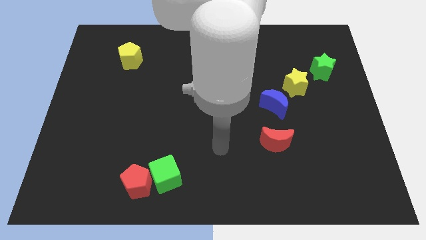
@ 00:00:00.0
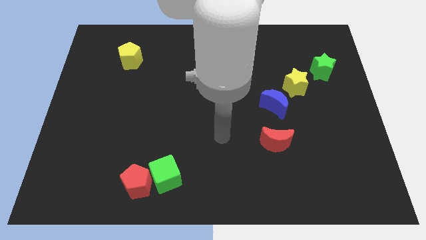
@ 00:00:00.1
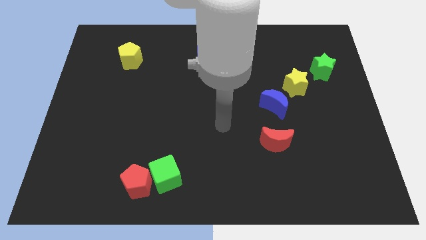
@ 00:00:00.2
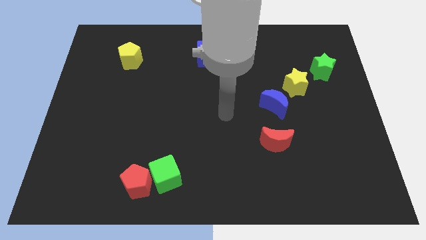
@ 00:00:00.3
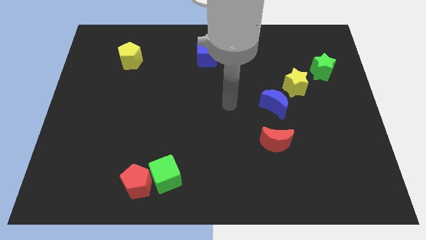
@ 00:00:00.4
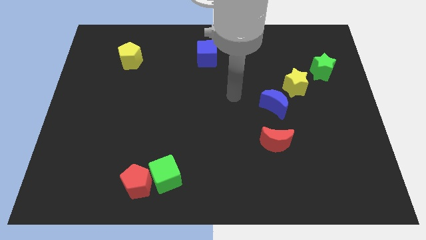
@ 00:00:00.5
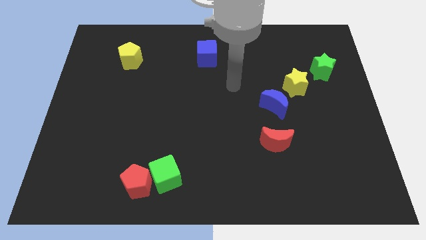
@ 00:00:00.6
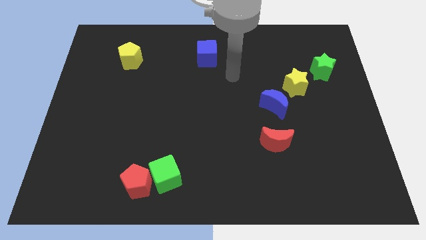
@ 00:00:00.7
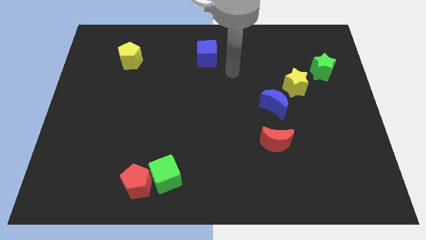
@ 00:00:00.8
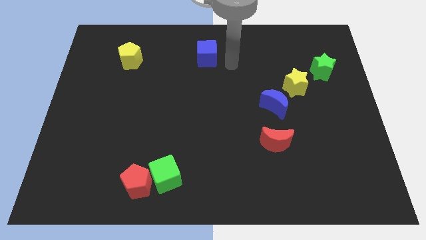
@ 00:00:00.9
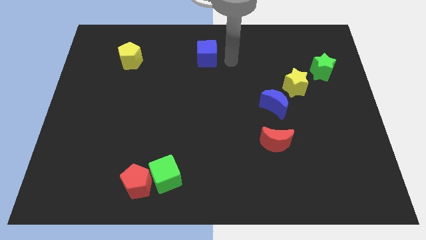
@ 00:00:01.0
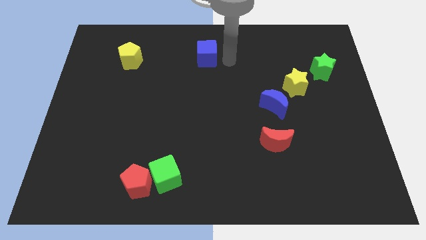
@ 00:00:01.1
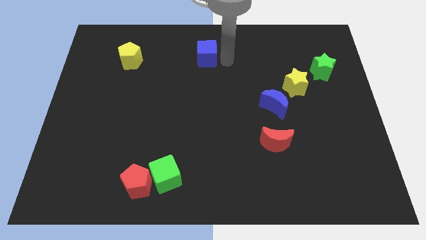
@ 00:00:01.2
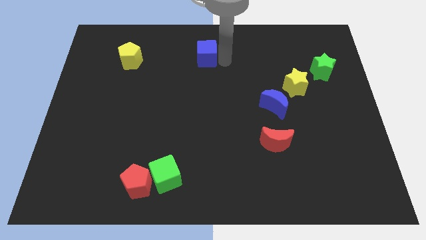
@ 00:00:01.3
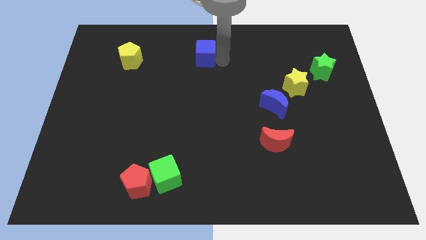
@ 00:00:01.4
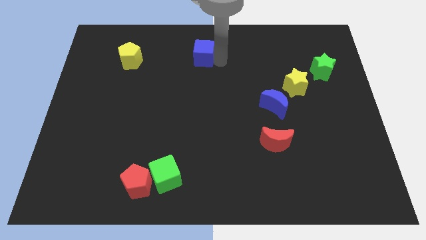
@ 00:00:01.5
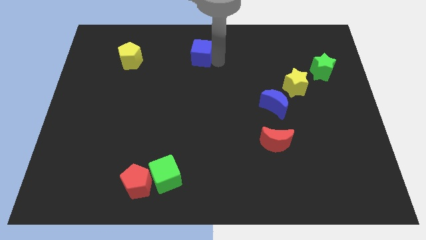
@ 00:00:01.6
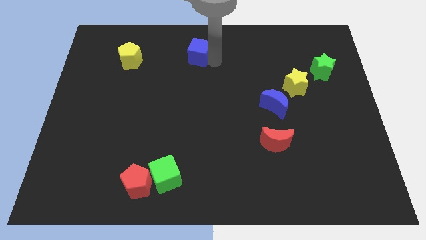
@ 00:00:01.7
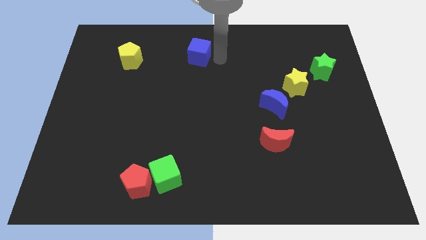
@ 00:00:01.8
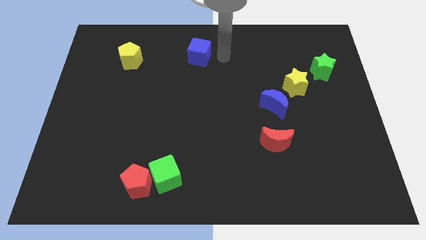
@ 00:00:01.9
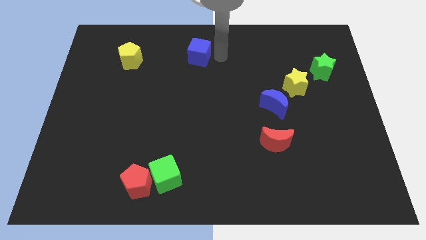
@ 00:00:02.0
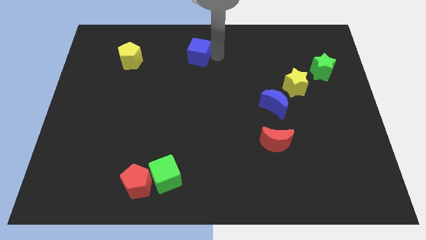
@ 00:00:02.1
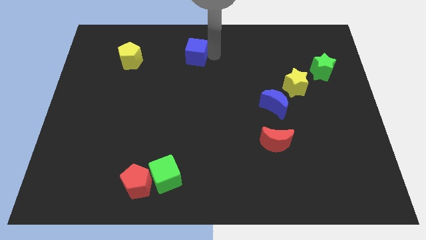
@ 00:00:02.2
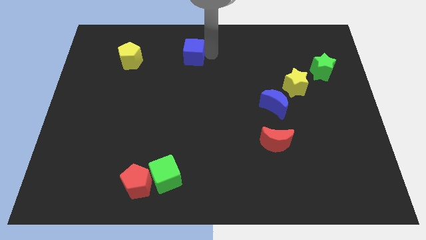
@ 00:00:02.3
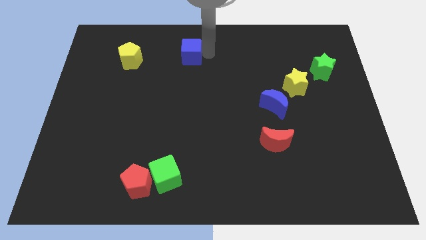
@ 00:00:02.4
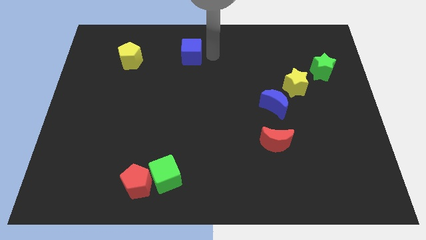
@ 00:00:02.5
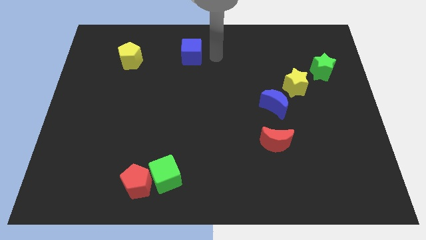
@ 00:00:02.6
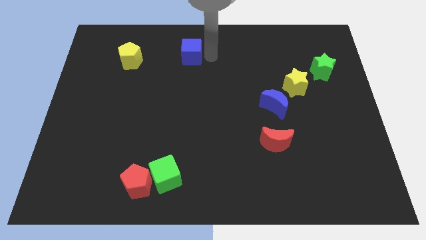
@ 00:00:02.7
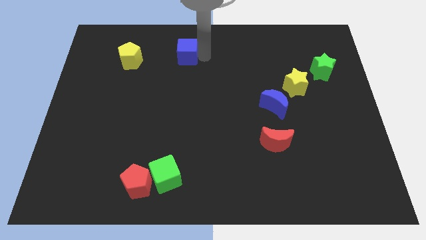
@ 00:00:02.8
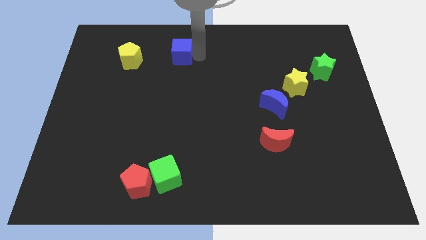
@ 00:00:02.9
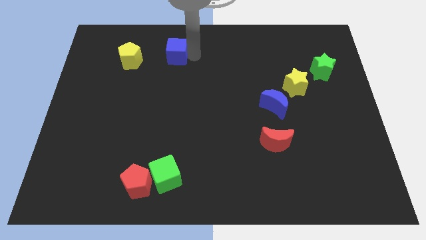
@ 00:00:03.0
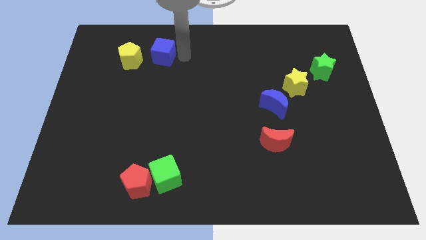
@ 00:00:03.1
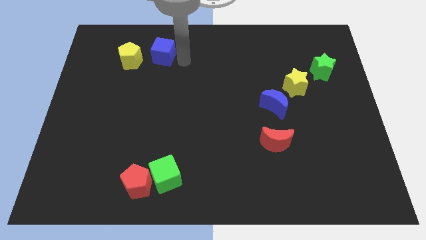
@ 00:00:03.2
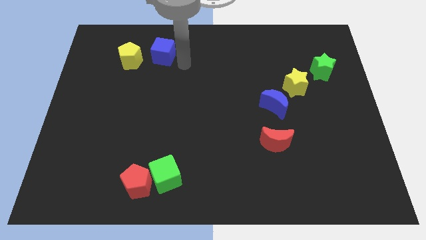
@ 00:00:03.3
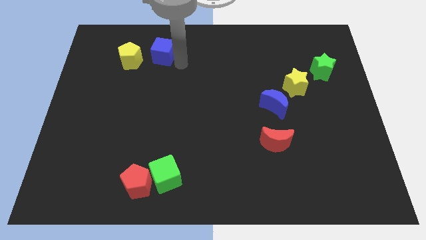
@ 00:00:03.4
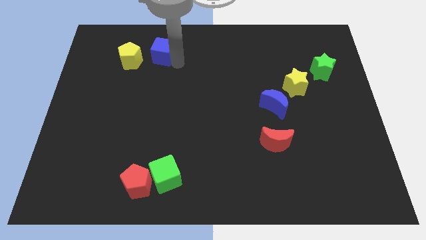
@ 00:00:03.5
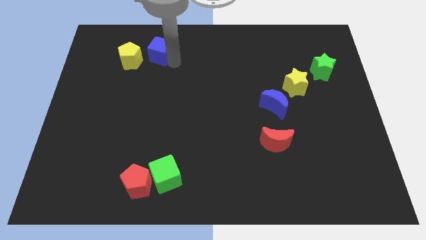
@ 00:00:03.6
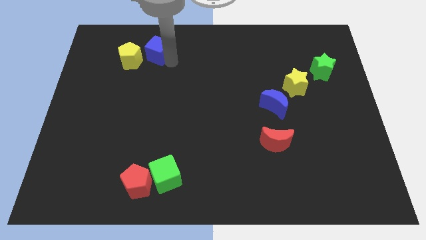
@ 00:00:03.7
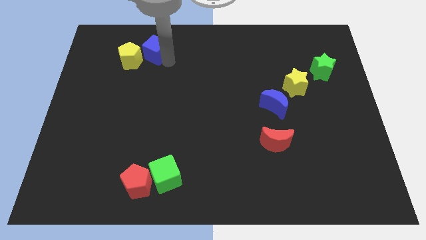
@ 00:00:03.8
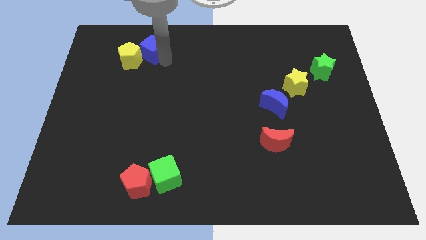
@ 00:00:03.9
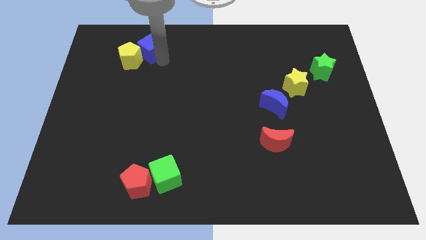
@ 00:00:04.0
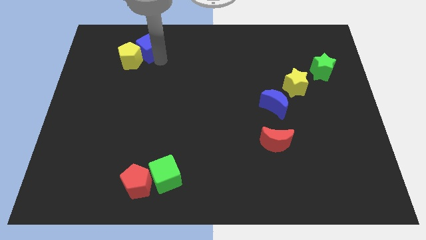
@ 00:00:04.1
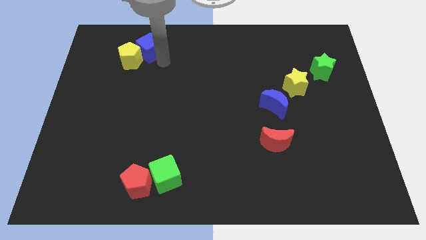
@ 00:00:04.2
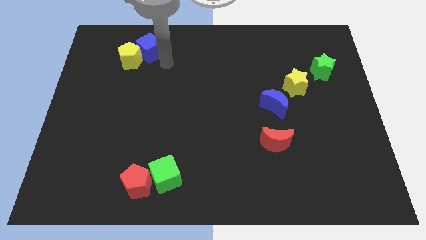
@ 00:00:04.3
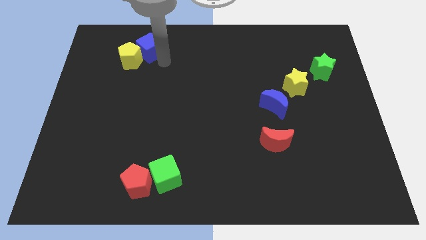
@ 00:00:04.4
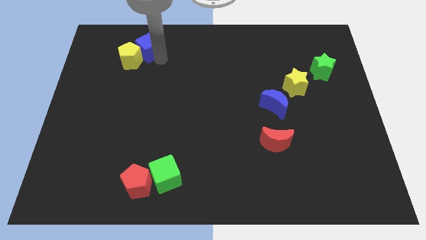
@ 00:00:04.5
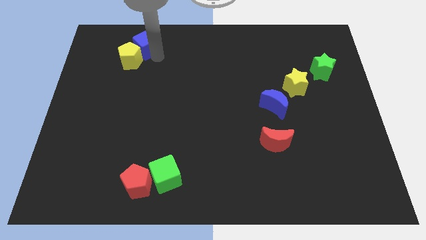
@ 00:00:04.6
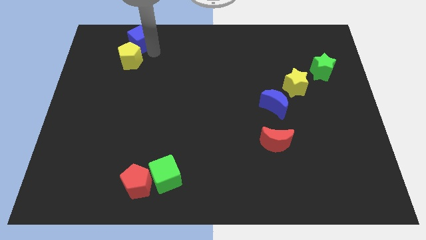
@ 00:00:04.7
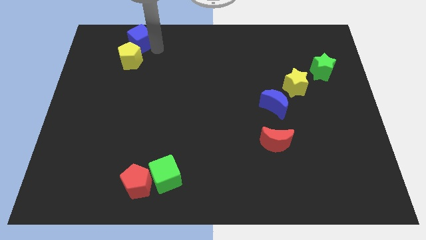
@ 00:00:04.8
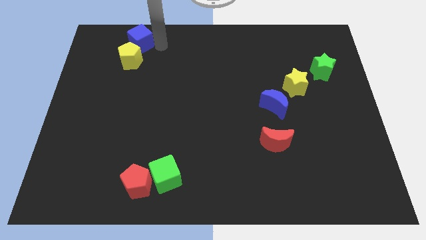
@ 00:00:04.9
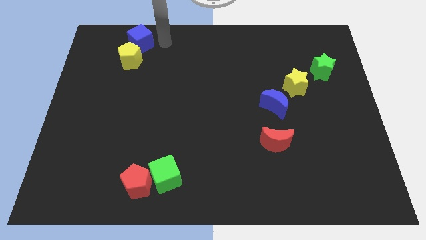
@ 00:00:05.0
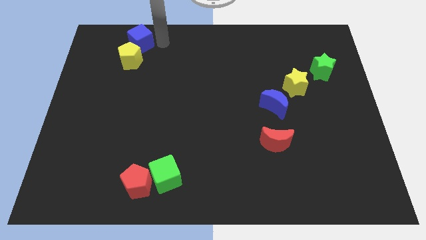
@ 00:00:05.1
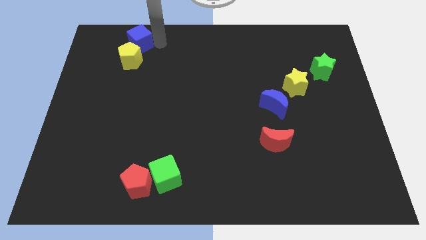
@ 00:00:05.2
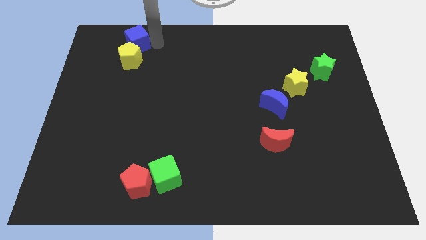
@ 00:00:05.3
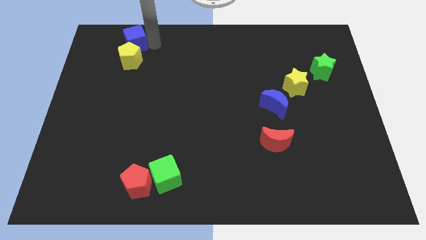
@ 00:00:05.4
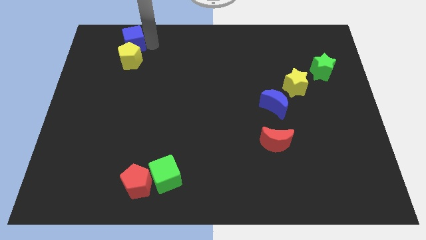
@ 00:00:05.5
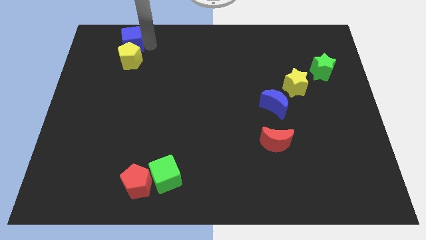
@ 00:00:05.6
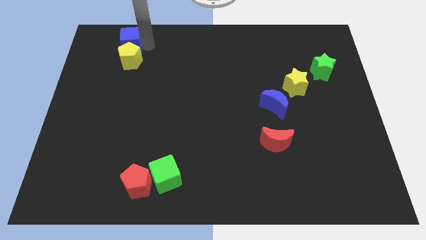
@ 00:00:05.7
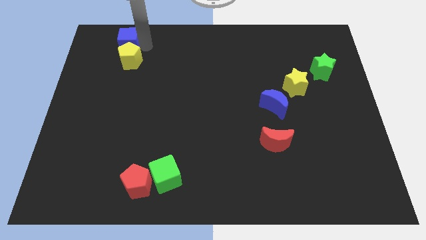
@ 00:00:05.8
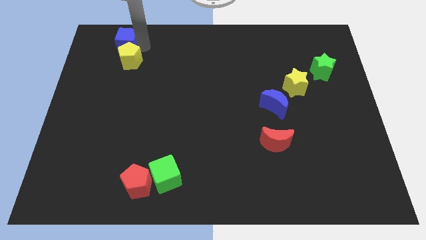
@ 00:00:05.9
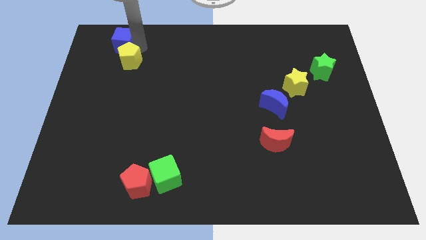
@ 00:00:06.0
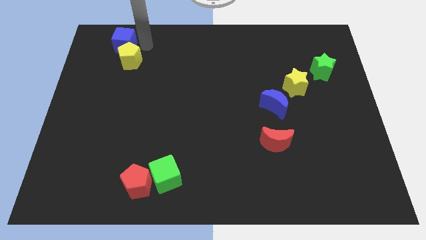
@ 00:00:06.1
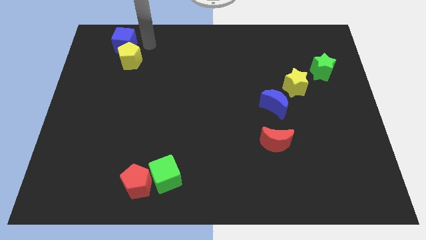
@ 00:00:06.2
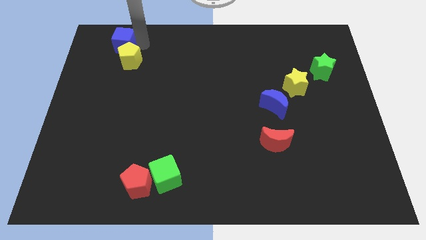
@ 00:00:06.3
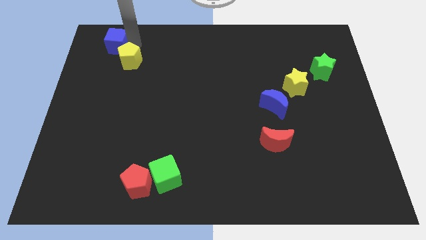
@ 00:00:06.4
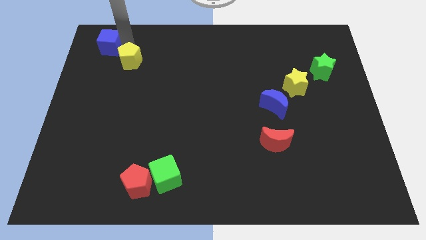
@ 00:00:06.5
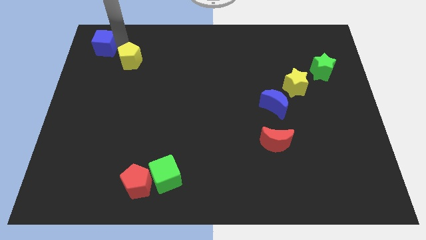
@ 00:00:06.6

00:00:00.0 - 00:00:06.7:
move the blue cube to the top left of the board

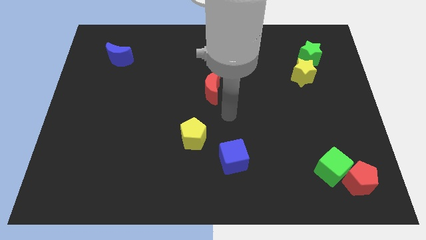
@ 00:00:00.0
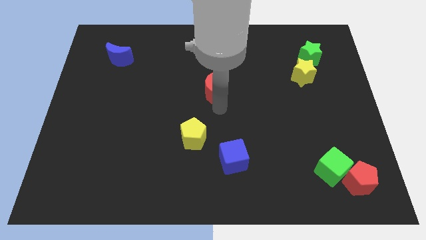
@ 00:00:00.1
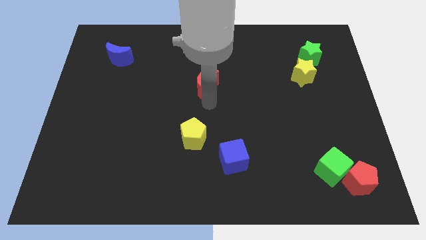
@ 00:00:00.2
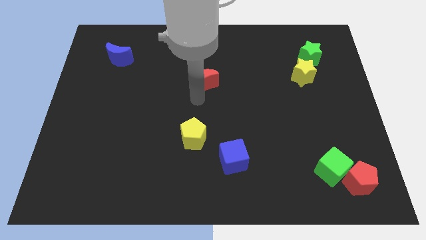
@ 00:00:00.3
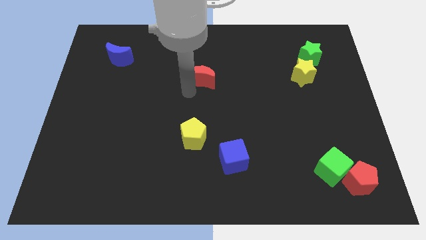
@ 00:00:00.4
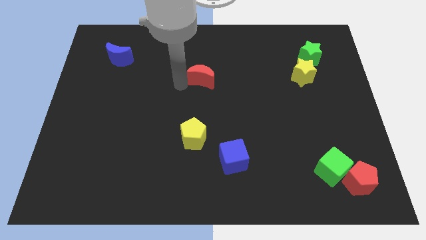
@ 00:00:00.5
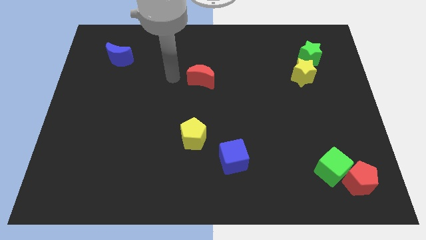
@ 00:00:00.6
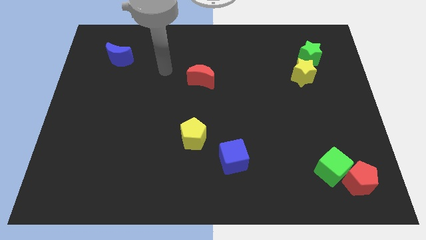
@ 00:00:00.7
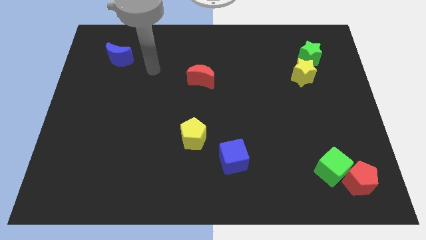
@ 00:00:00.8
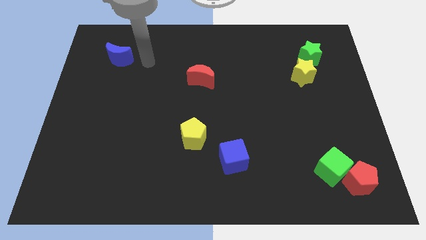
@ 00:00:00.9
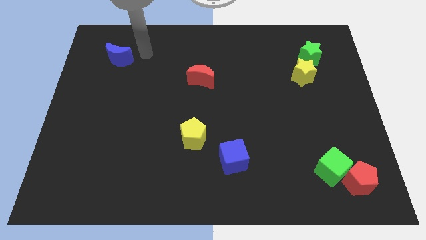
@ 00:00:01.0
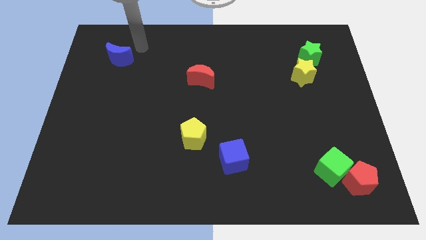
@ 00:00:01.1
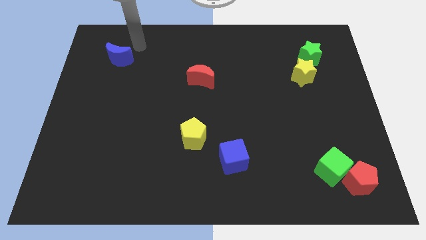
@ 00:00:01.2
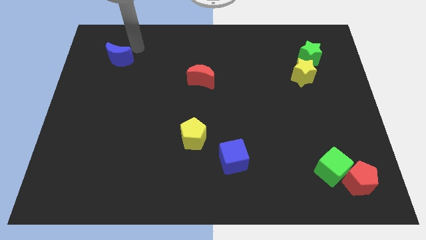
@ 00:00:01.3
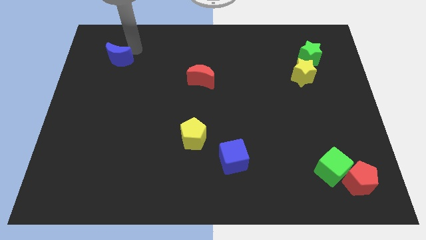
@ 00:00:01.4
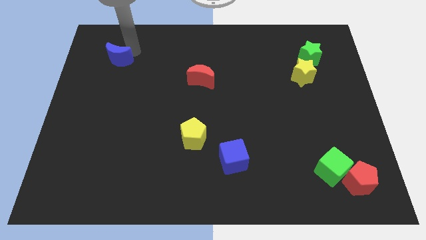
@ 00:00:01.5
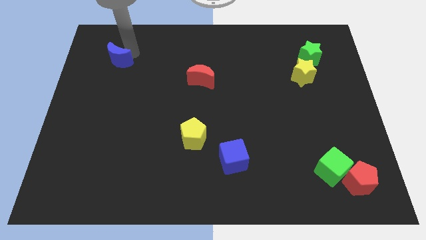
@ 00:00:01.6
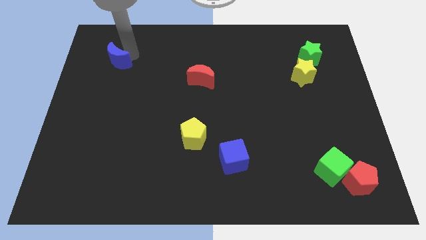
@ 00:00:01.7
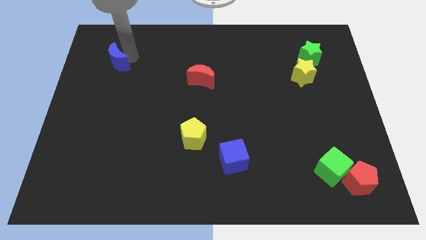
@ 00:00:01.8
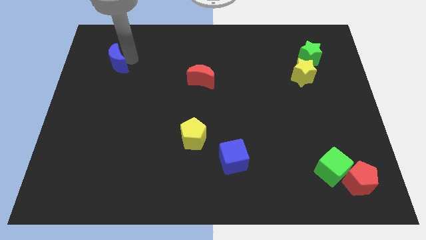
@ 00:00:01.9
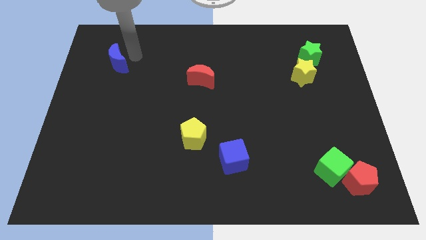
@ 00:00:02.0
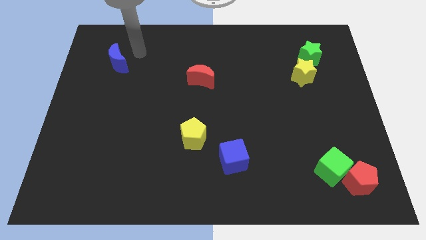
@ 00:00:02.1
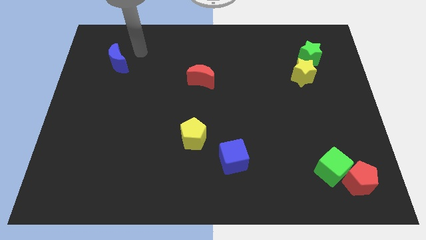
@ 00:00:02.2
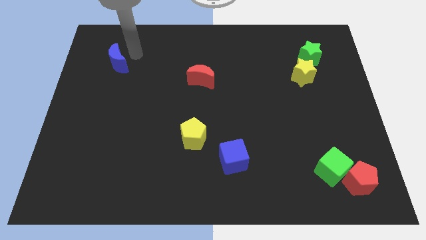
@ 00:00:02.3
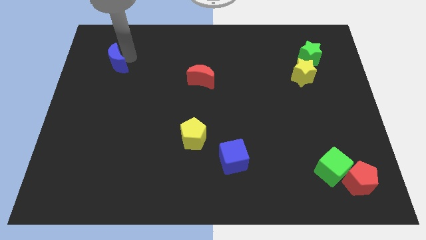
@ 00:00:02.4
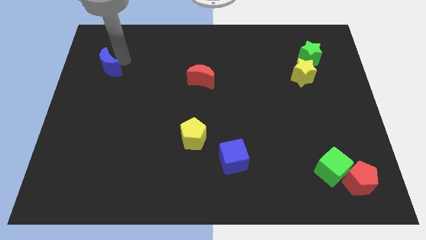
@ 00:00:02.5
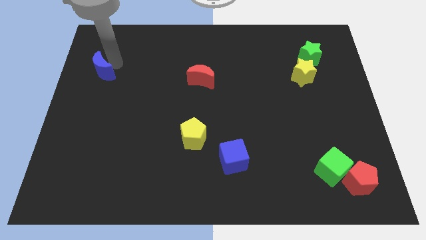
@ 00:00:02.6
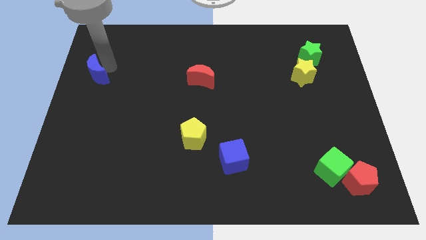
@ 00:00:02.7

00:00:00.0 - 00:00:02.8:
slide the blue moon to the left side of the board
